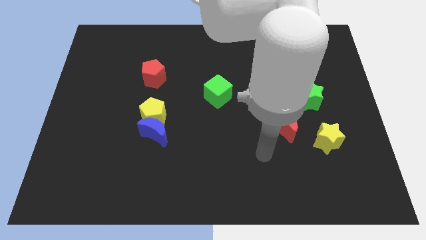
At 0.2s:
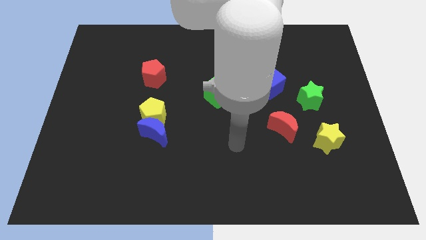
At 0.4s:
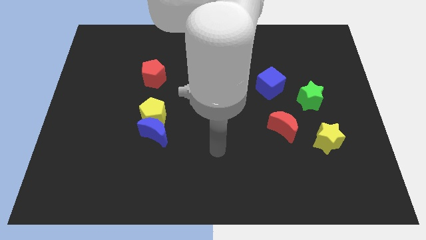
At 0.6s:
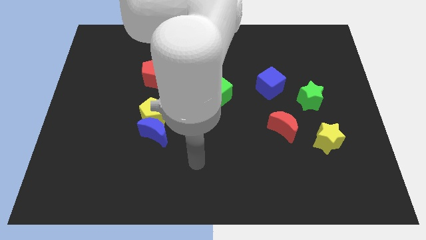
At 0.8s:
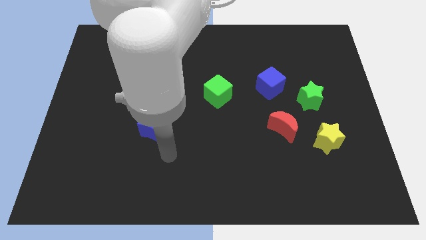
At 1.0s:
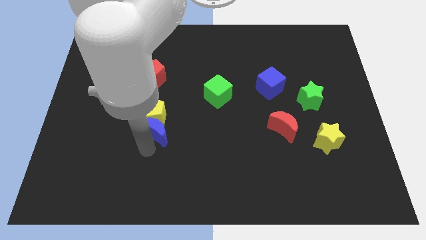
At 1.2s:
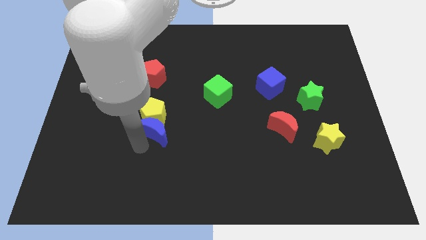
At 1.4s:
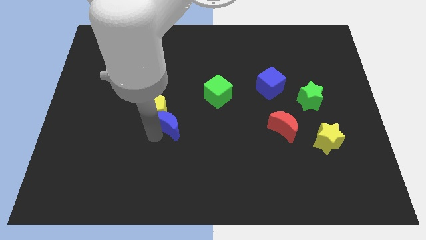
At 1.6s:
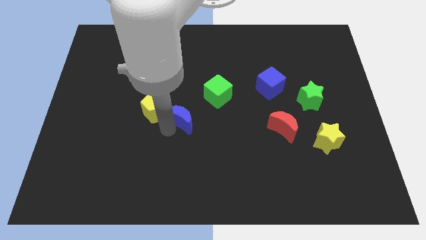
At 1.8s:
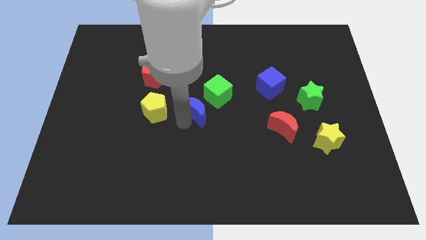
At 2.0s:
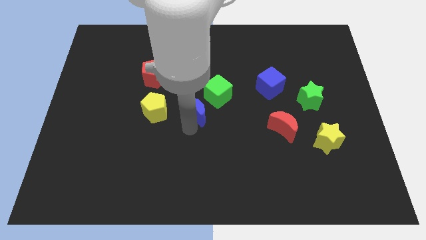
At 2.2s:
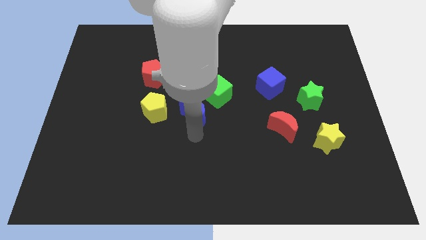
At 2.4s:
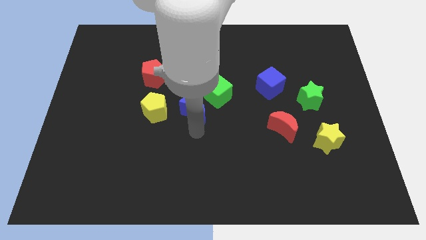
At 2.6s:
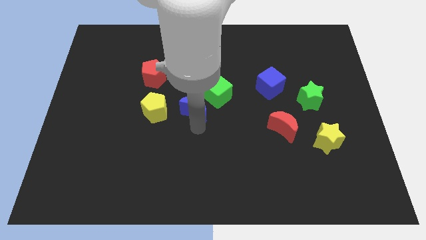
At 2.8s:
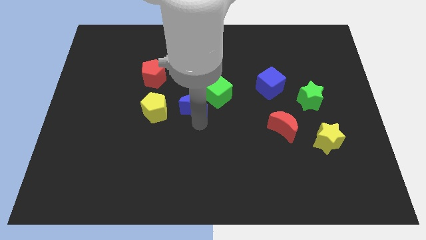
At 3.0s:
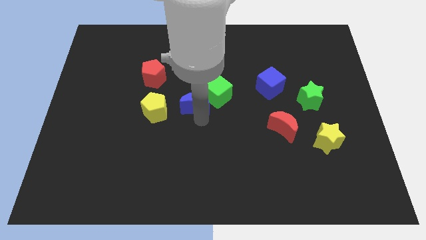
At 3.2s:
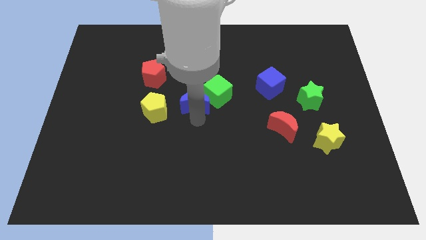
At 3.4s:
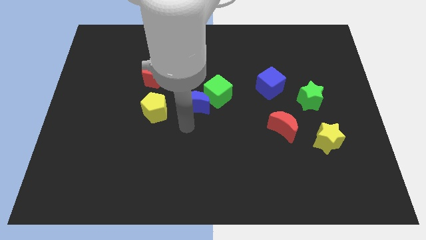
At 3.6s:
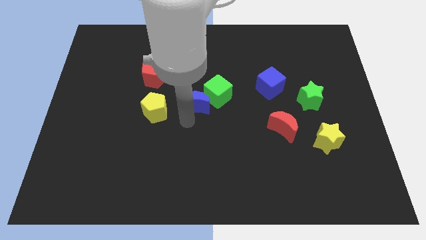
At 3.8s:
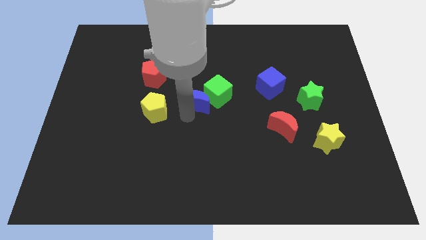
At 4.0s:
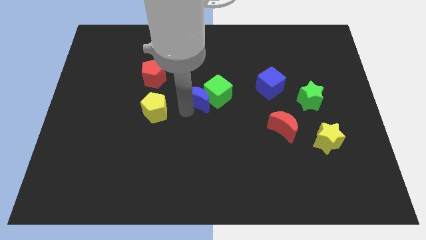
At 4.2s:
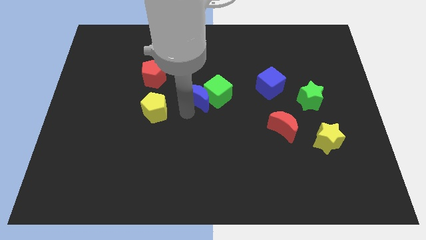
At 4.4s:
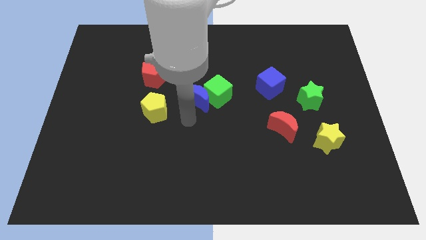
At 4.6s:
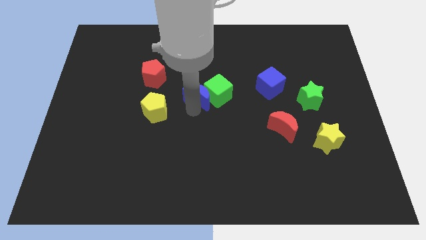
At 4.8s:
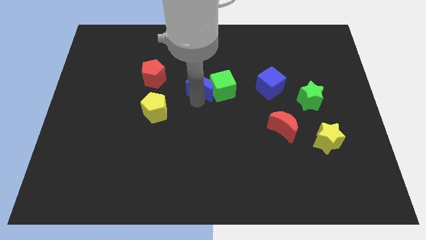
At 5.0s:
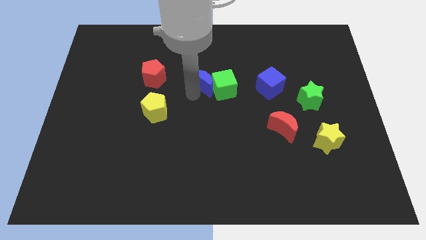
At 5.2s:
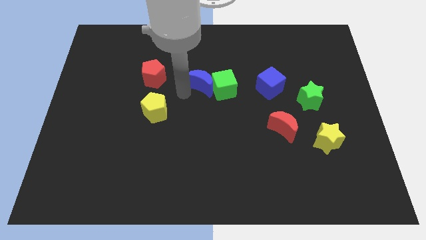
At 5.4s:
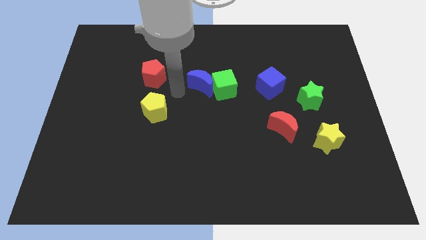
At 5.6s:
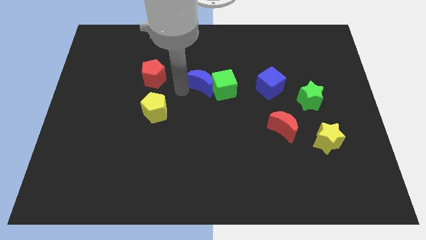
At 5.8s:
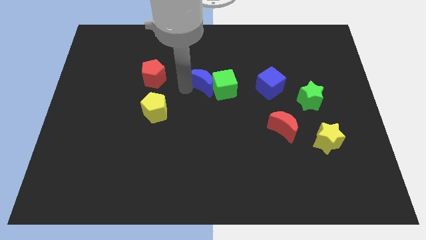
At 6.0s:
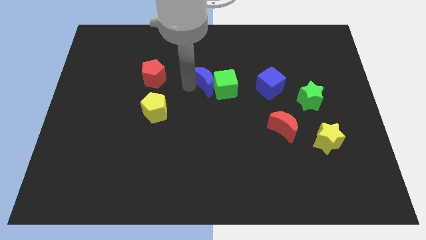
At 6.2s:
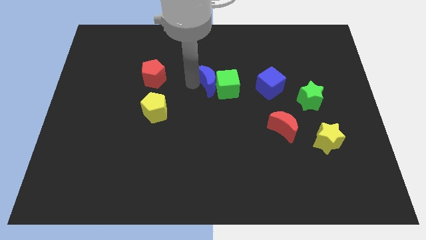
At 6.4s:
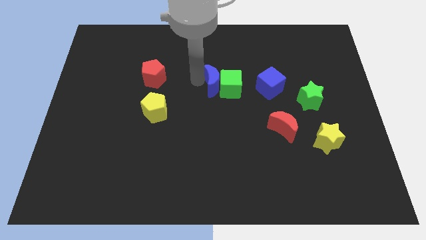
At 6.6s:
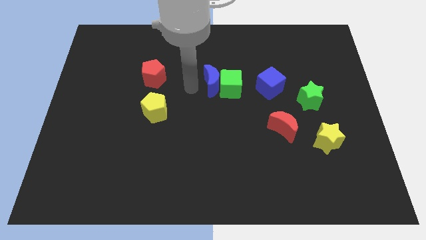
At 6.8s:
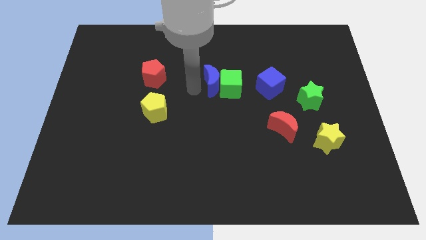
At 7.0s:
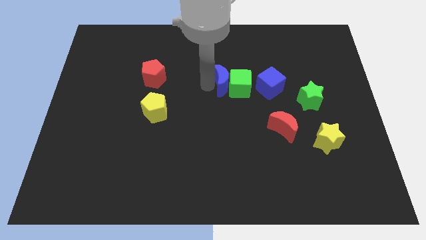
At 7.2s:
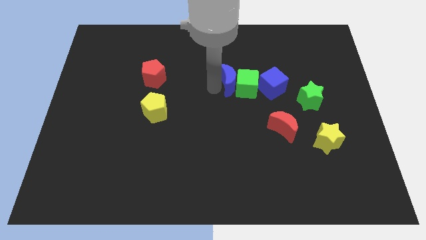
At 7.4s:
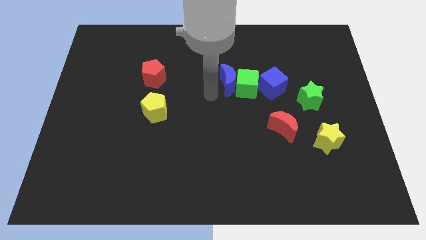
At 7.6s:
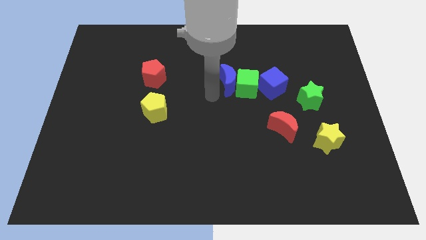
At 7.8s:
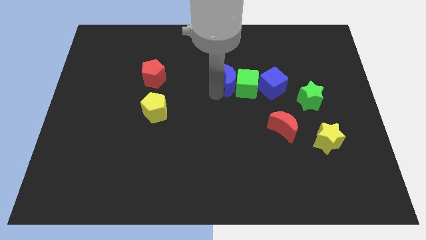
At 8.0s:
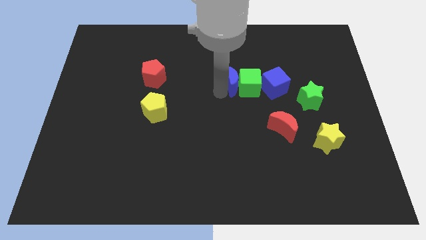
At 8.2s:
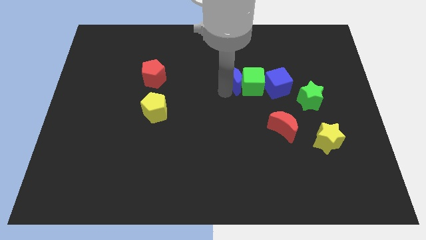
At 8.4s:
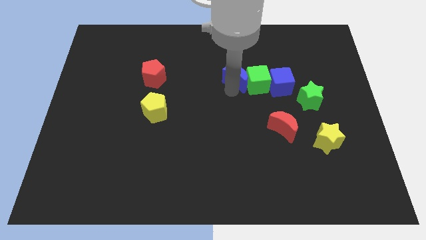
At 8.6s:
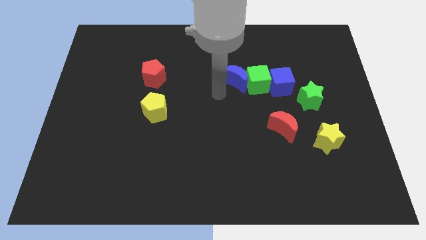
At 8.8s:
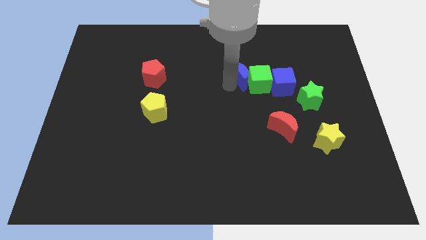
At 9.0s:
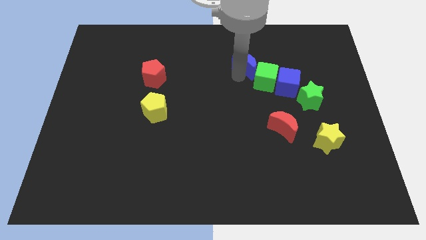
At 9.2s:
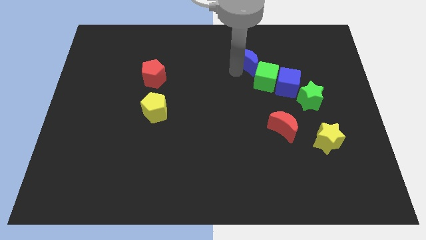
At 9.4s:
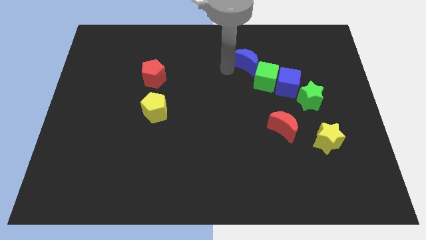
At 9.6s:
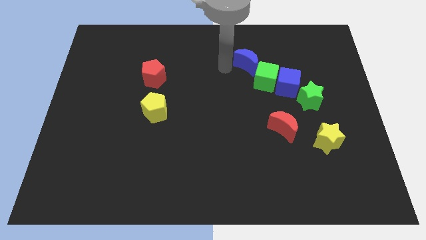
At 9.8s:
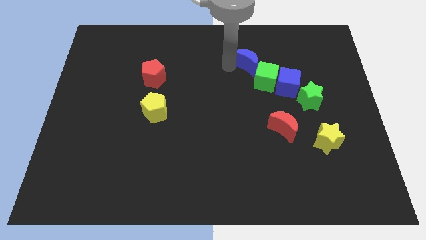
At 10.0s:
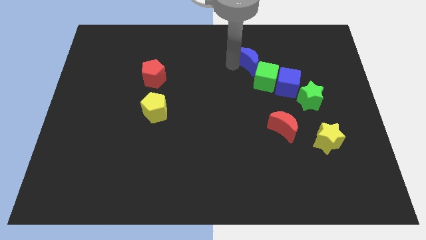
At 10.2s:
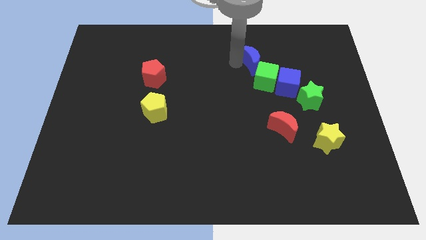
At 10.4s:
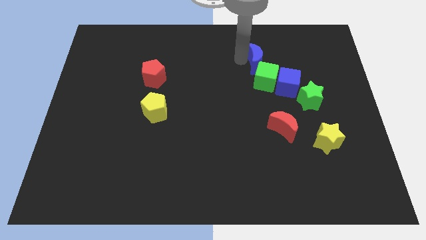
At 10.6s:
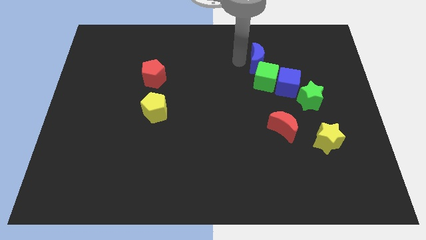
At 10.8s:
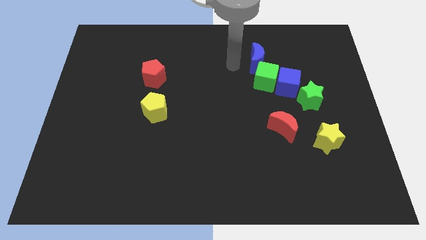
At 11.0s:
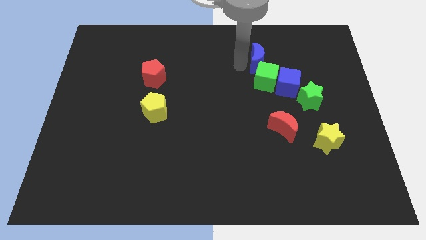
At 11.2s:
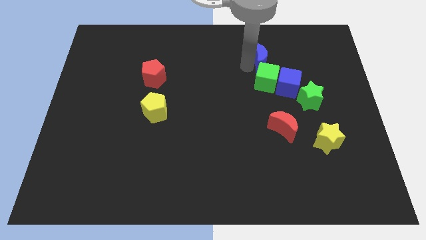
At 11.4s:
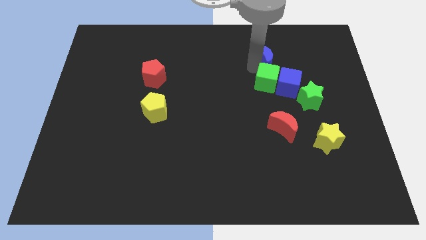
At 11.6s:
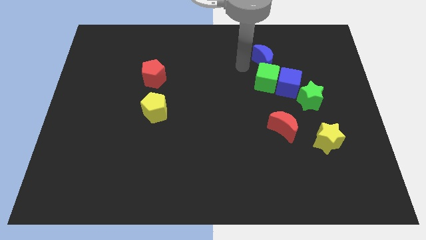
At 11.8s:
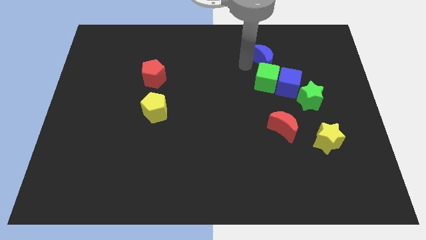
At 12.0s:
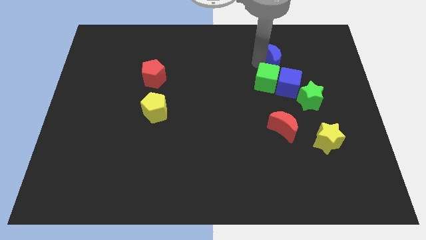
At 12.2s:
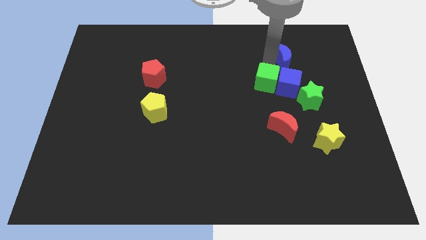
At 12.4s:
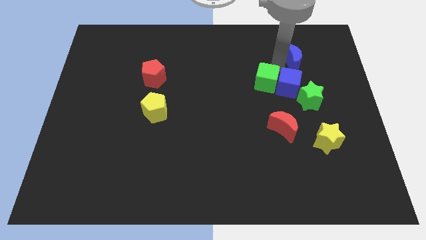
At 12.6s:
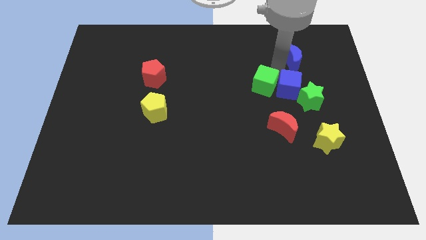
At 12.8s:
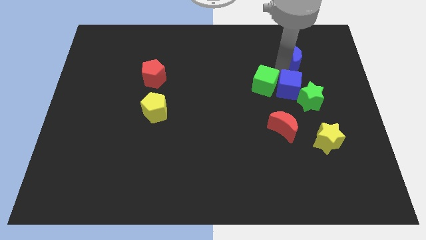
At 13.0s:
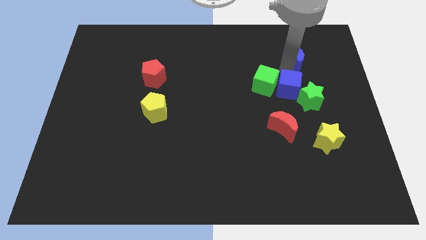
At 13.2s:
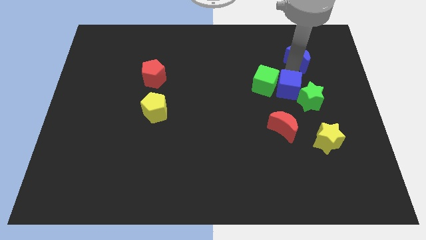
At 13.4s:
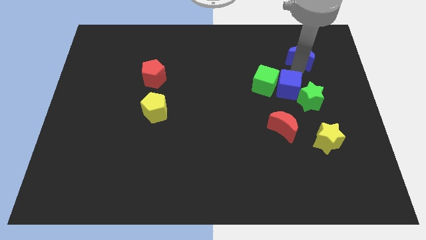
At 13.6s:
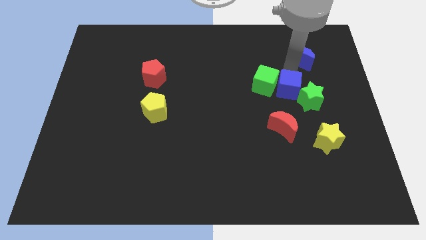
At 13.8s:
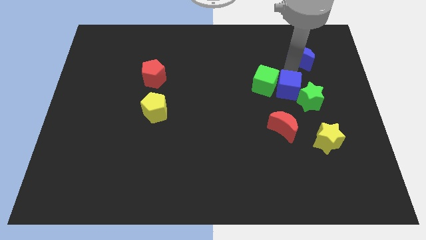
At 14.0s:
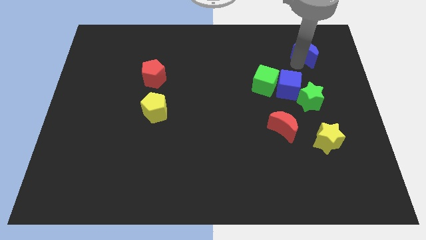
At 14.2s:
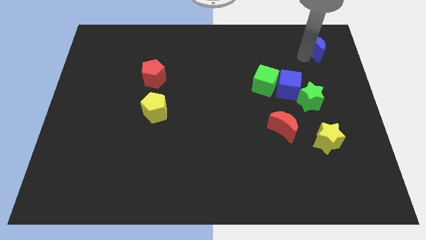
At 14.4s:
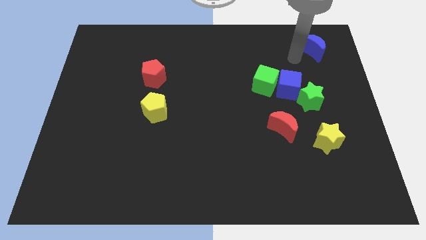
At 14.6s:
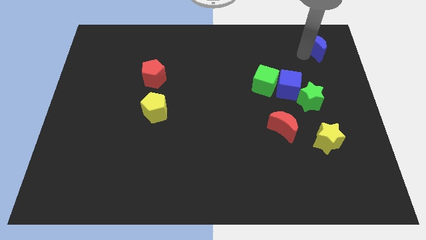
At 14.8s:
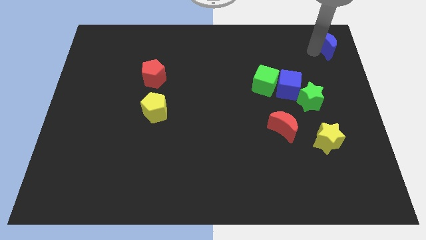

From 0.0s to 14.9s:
move the blue moon to the upper right corner
